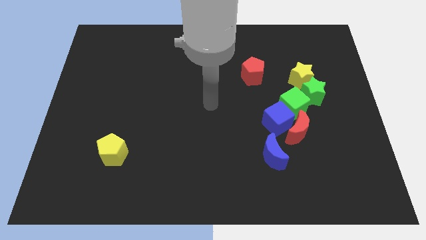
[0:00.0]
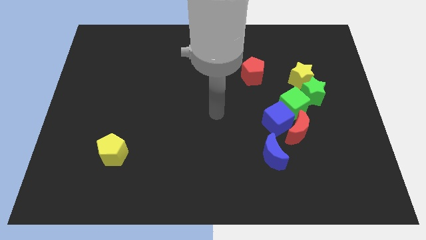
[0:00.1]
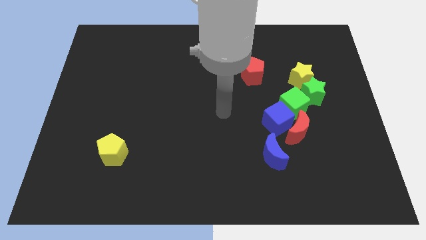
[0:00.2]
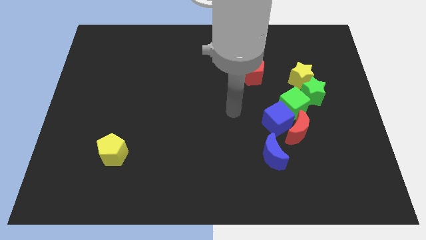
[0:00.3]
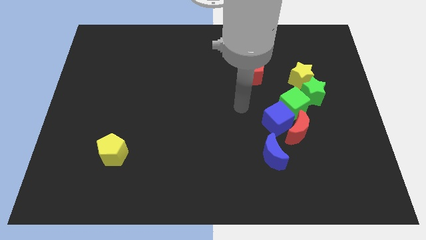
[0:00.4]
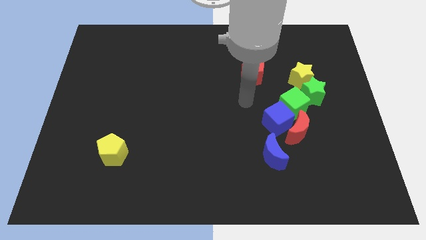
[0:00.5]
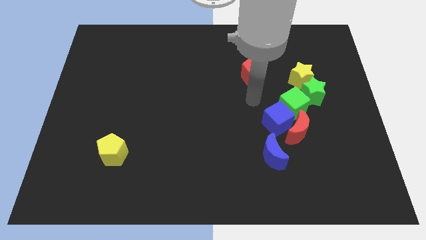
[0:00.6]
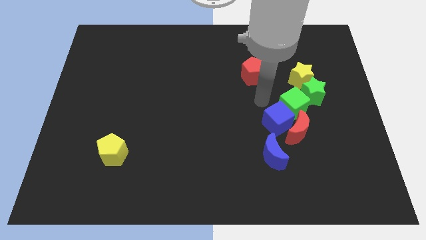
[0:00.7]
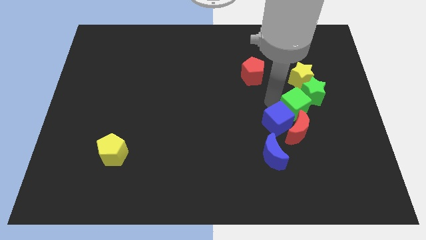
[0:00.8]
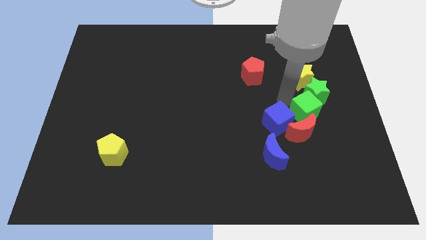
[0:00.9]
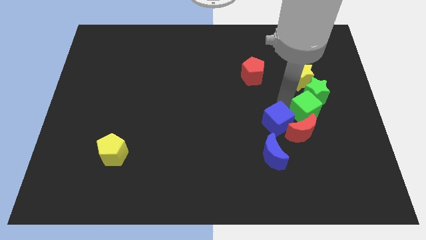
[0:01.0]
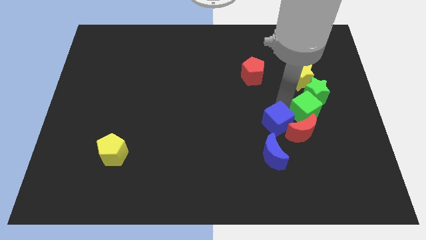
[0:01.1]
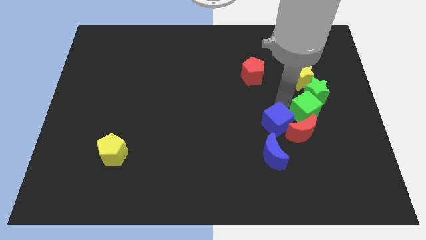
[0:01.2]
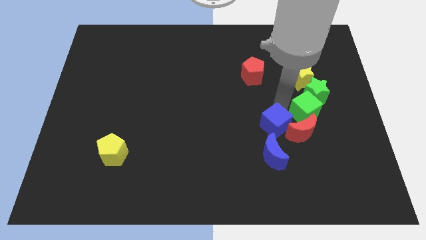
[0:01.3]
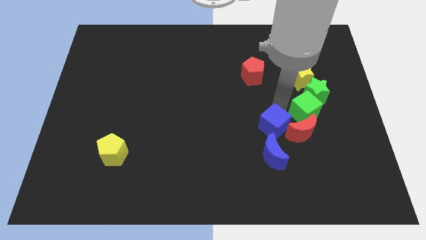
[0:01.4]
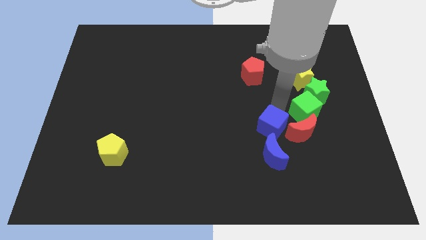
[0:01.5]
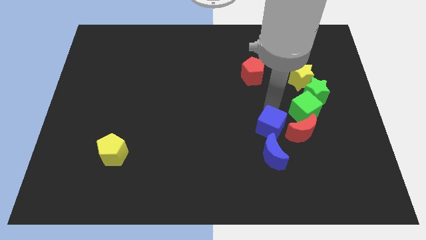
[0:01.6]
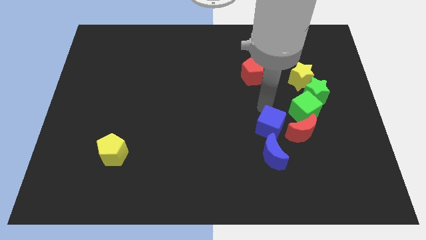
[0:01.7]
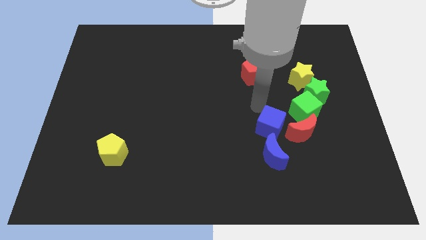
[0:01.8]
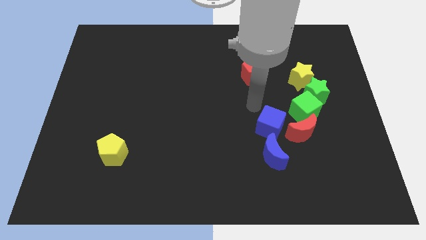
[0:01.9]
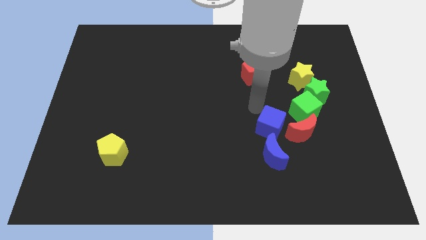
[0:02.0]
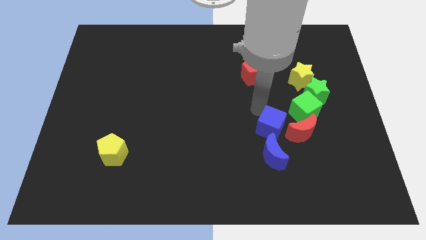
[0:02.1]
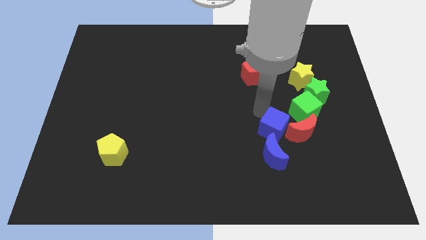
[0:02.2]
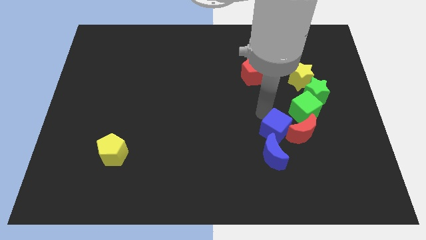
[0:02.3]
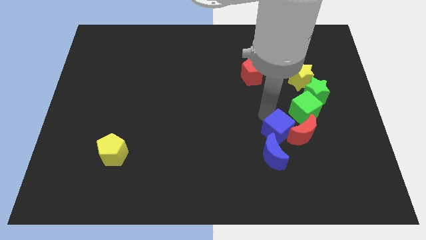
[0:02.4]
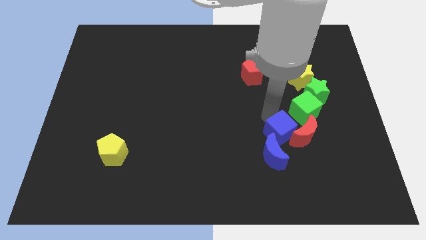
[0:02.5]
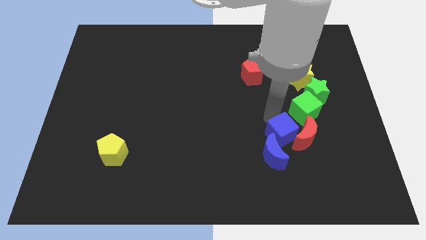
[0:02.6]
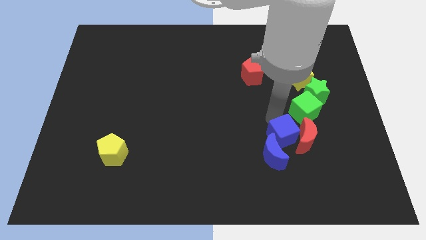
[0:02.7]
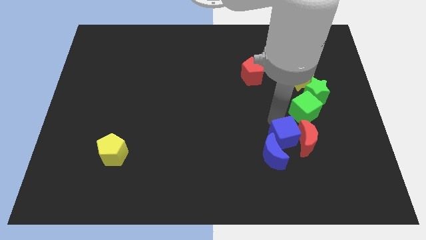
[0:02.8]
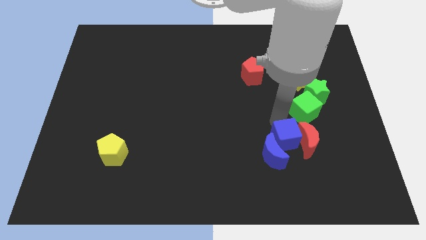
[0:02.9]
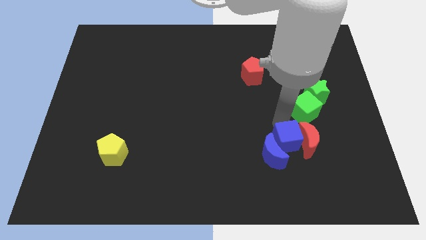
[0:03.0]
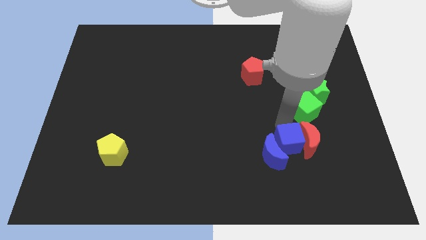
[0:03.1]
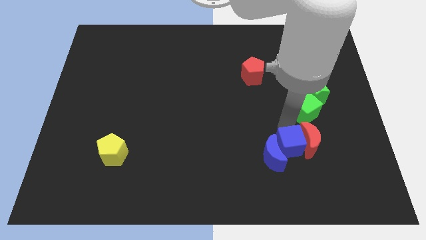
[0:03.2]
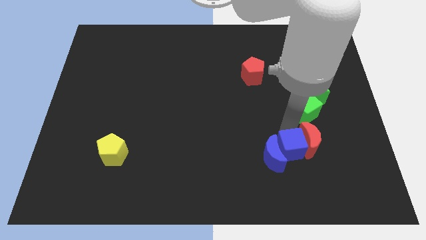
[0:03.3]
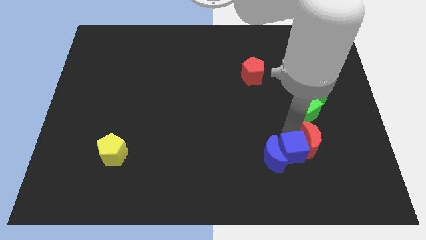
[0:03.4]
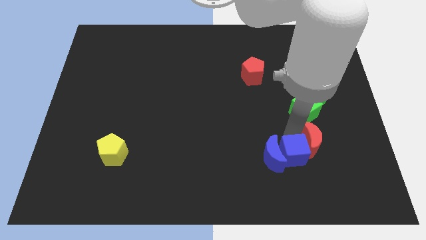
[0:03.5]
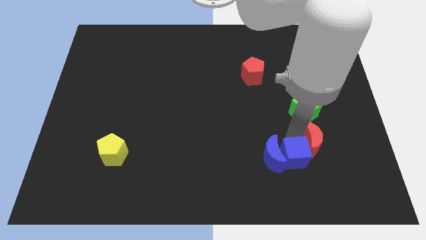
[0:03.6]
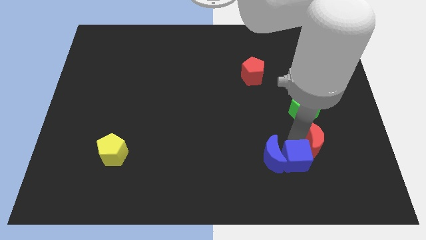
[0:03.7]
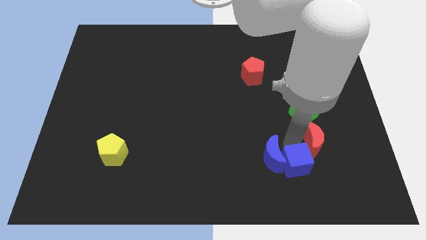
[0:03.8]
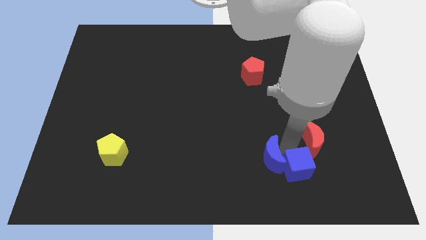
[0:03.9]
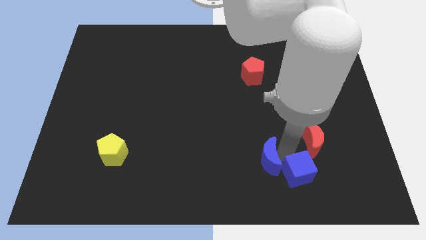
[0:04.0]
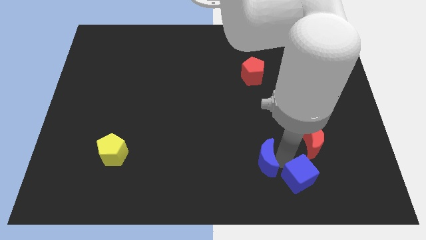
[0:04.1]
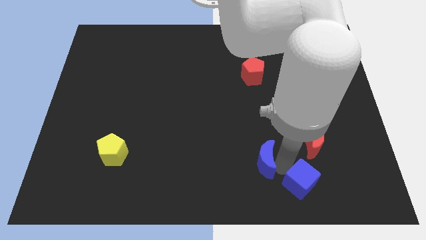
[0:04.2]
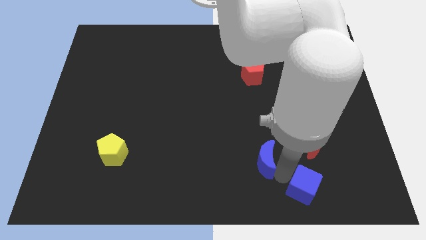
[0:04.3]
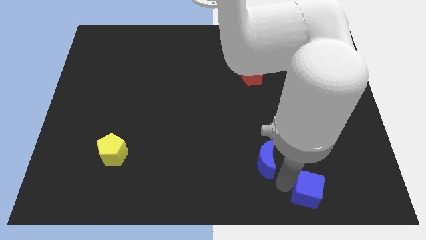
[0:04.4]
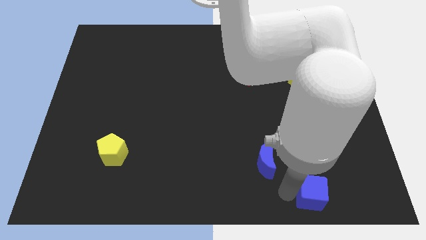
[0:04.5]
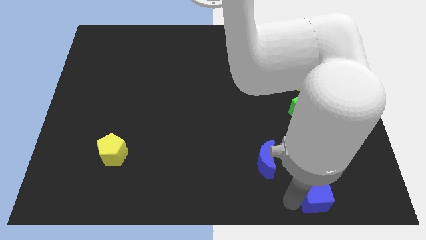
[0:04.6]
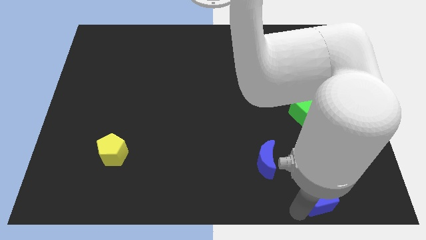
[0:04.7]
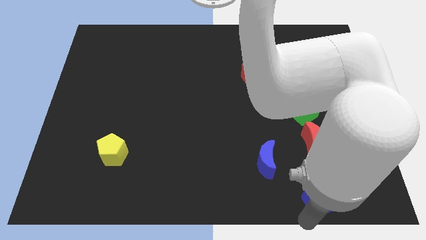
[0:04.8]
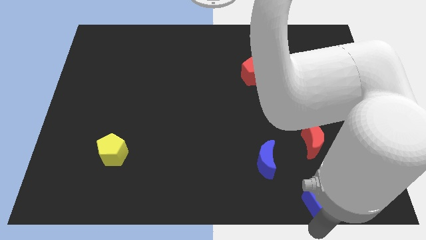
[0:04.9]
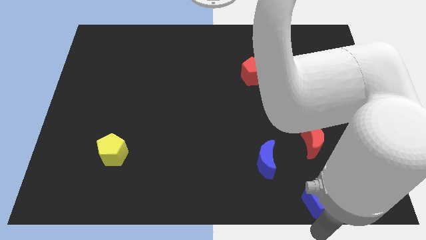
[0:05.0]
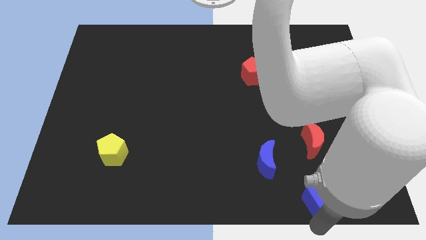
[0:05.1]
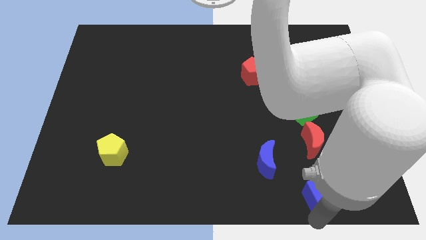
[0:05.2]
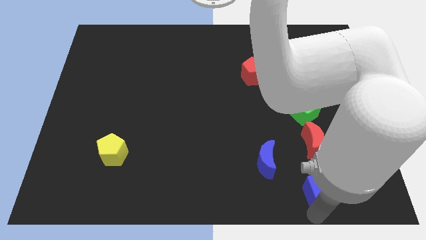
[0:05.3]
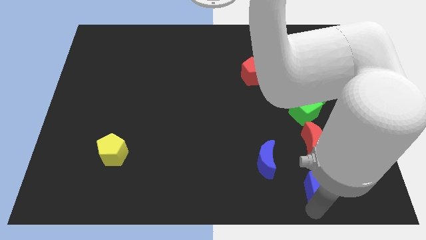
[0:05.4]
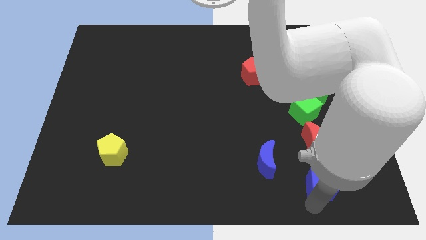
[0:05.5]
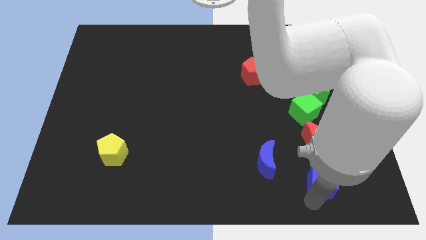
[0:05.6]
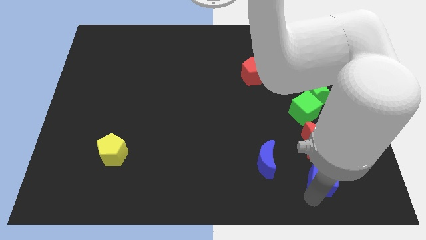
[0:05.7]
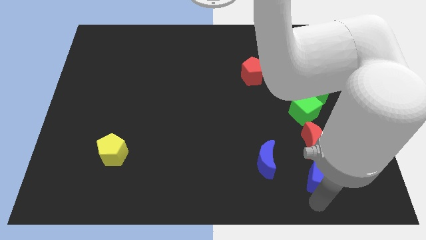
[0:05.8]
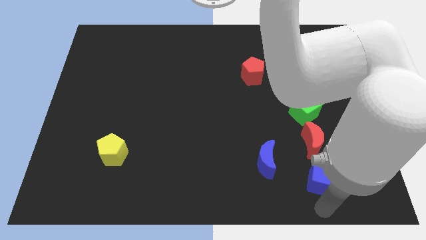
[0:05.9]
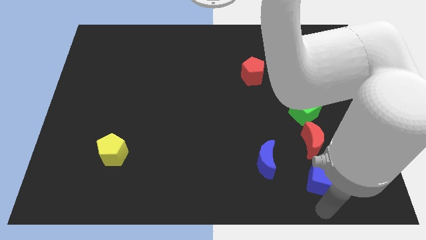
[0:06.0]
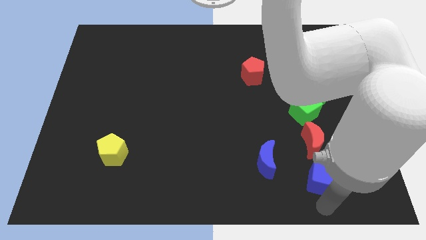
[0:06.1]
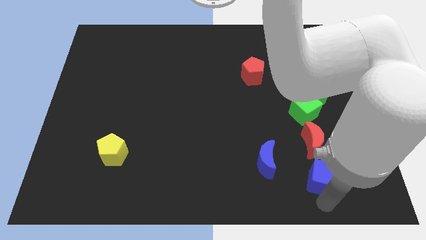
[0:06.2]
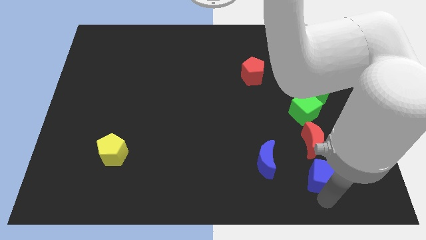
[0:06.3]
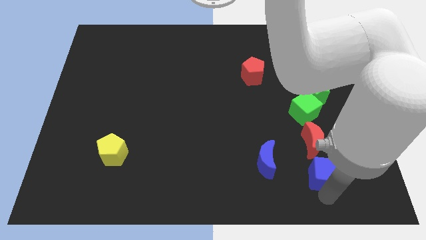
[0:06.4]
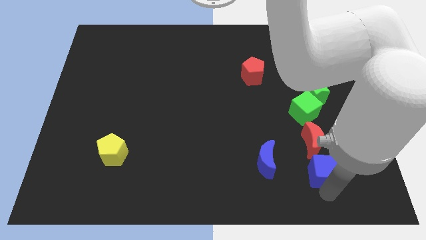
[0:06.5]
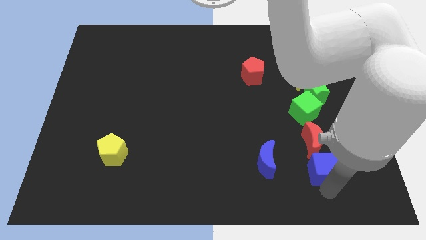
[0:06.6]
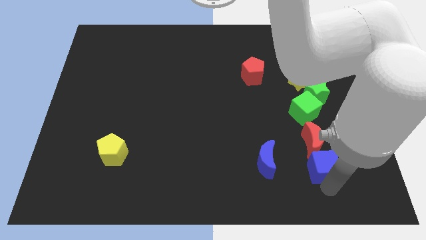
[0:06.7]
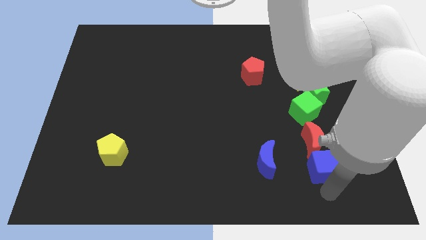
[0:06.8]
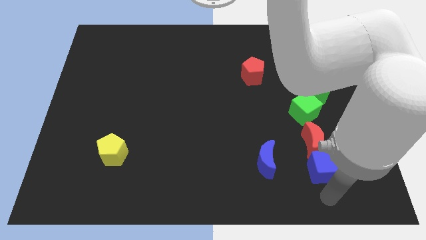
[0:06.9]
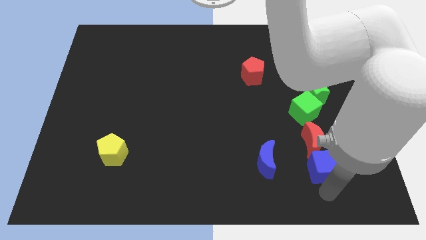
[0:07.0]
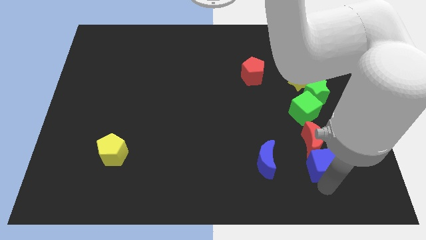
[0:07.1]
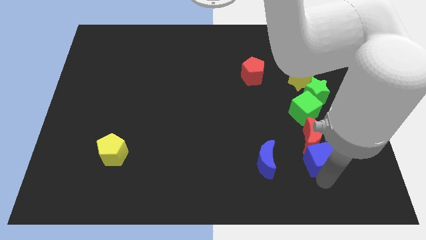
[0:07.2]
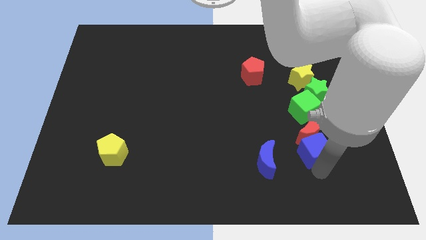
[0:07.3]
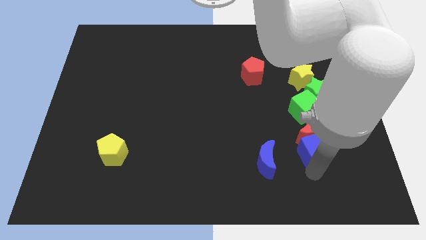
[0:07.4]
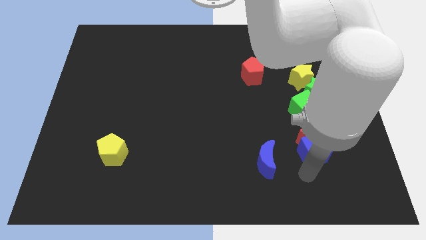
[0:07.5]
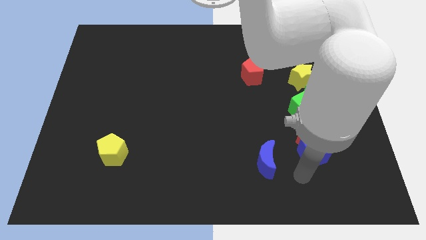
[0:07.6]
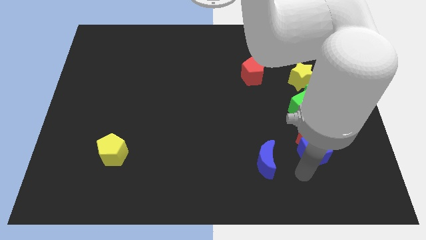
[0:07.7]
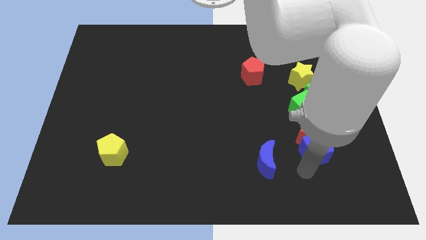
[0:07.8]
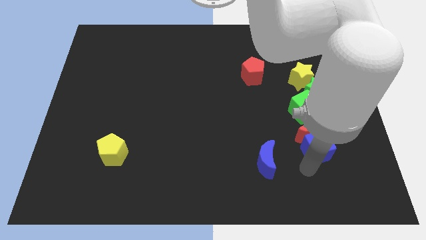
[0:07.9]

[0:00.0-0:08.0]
push the blue cube to the bottom of the green star
